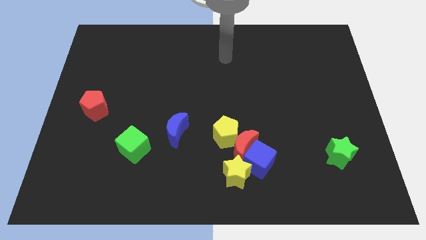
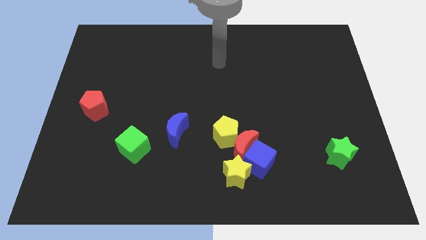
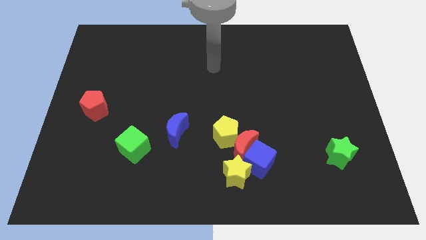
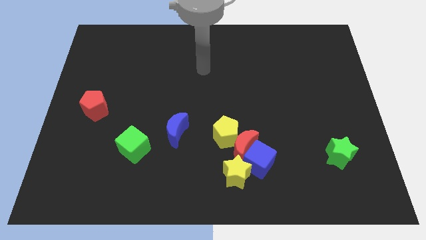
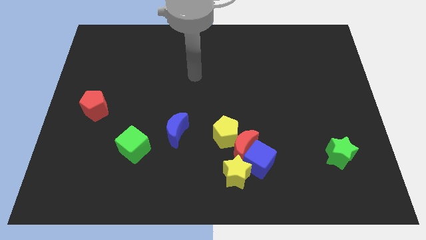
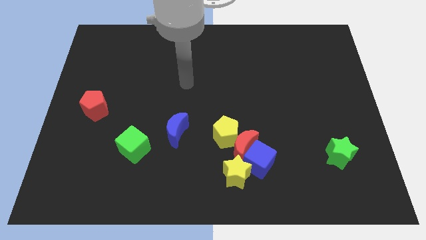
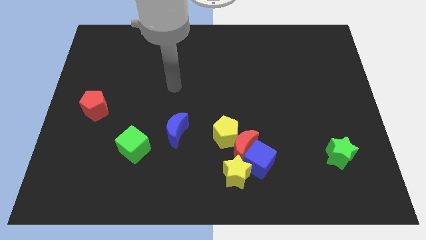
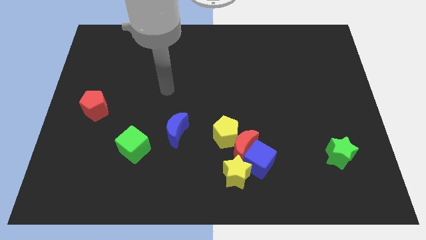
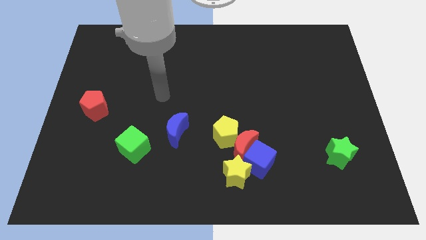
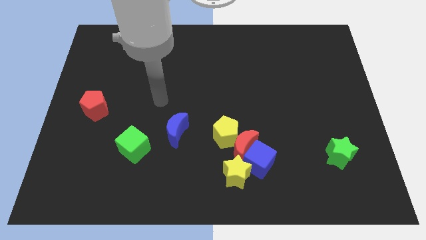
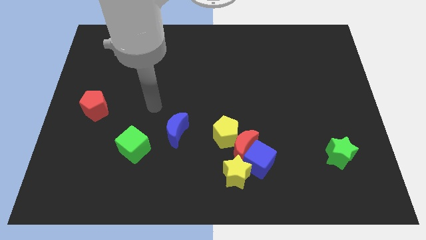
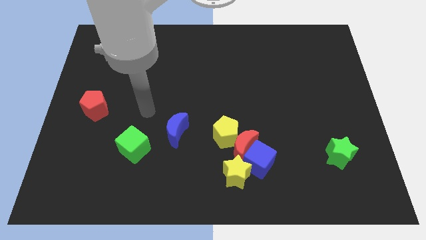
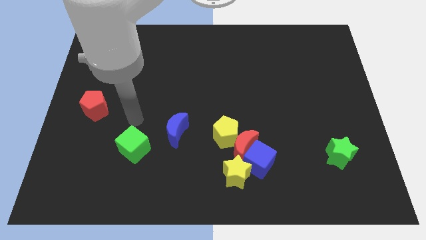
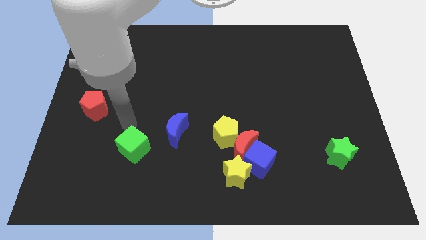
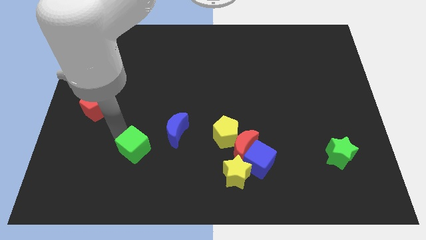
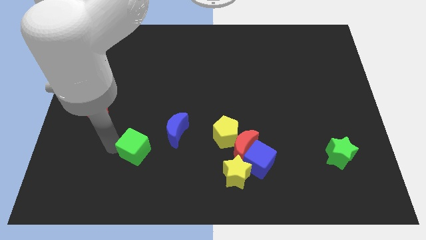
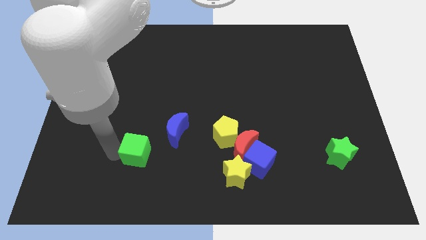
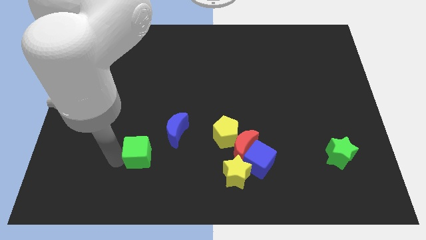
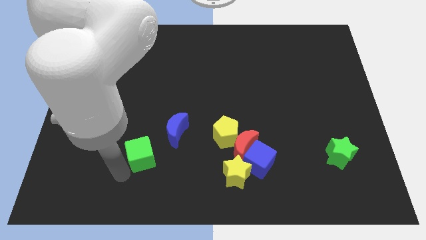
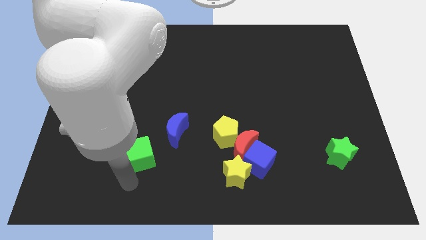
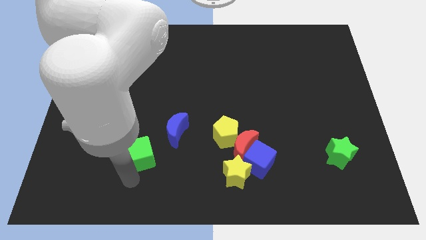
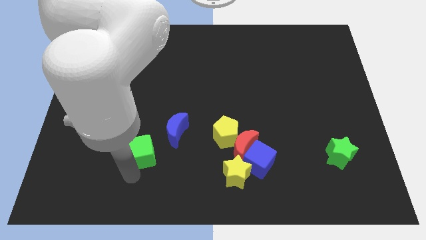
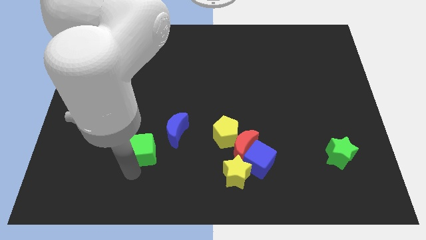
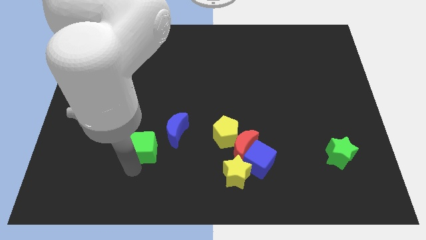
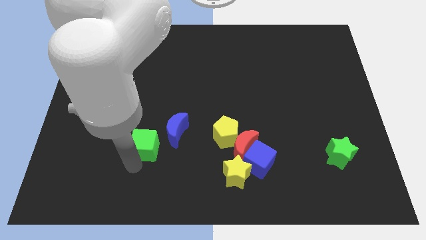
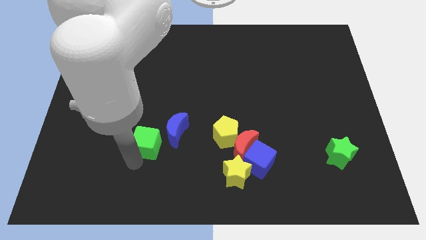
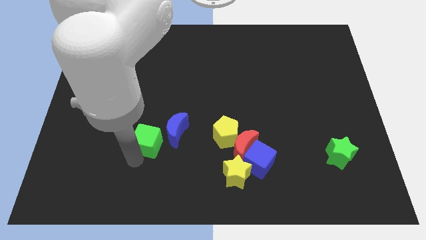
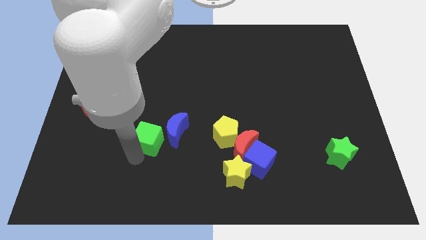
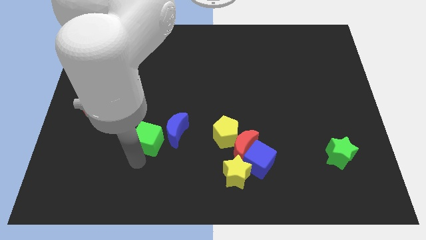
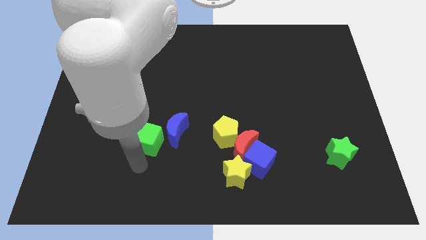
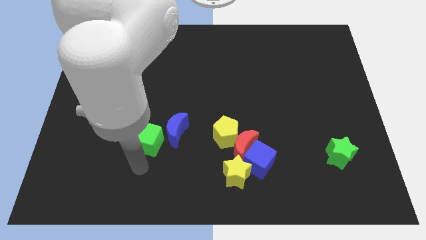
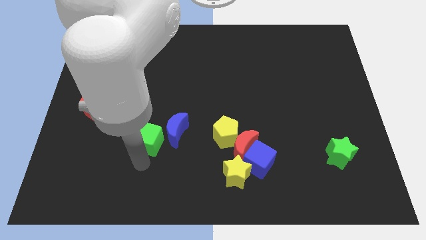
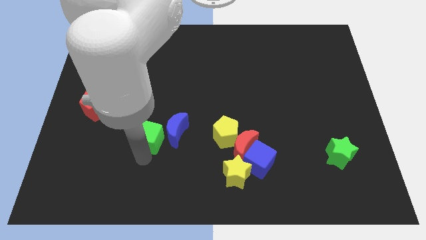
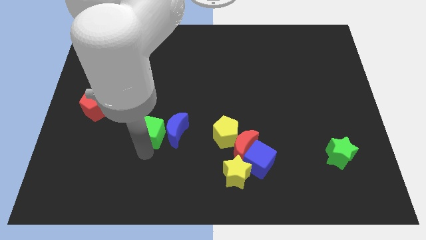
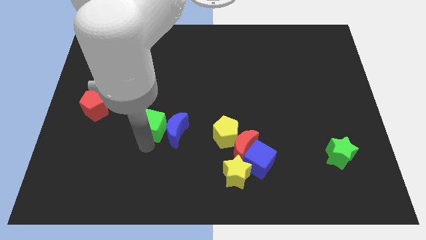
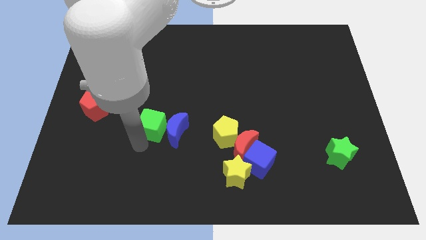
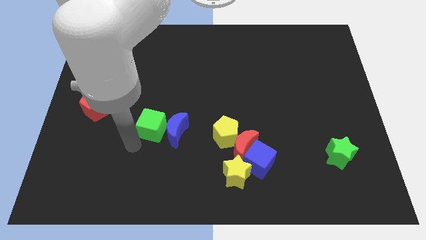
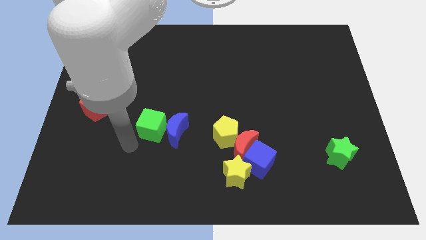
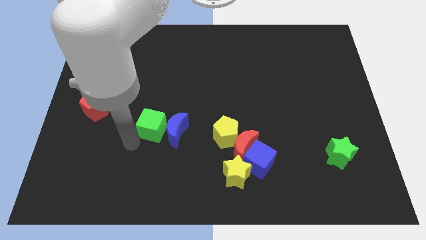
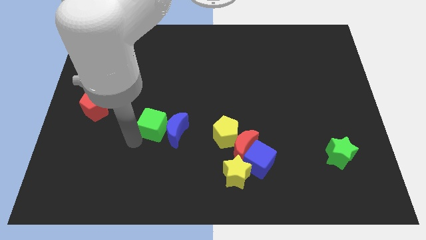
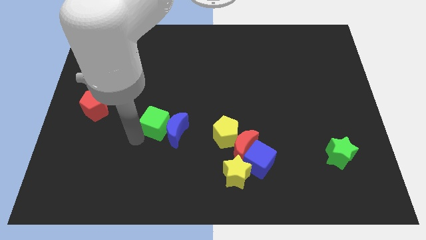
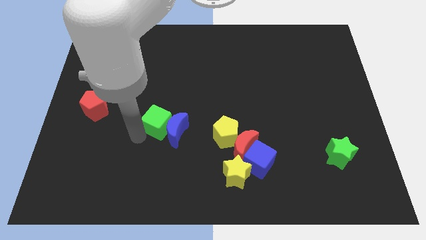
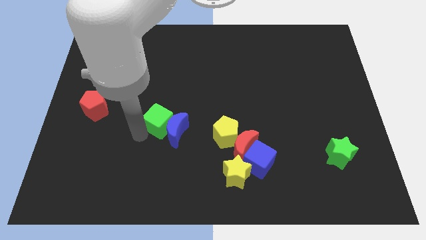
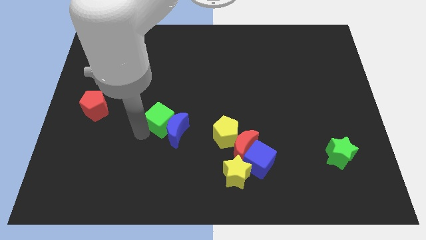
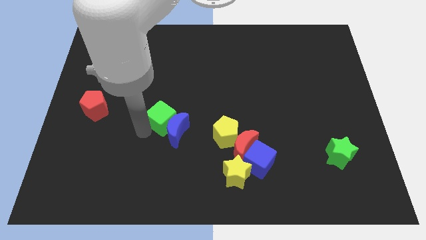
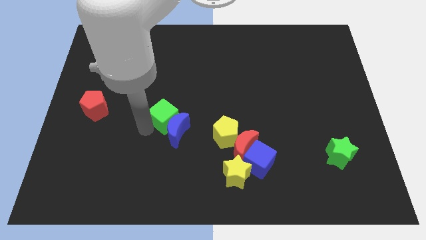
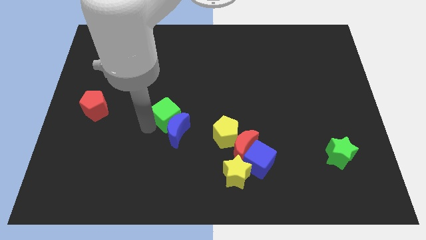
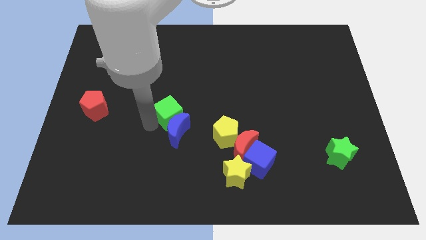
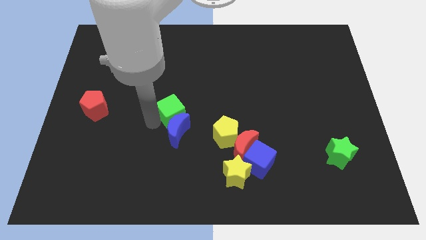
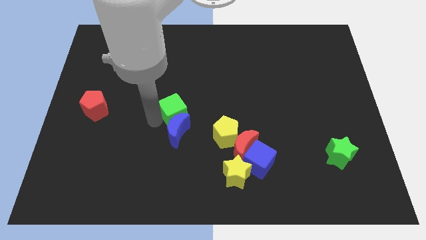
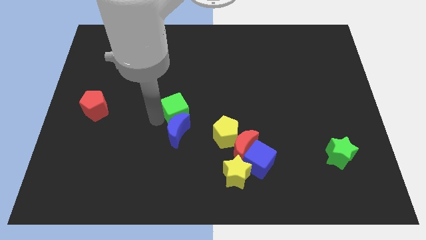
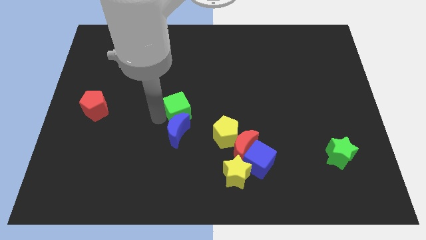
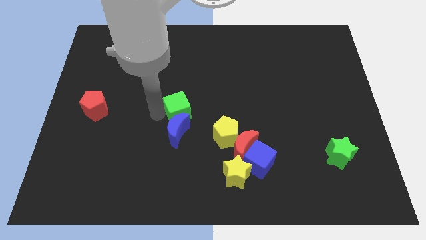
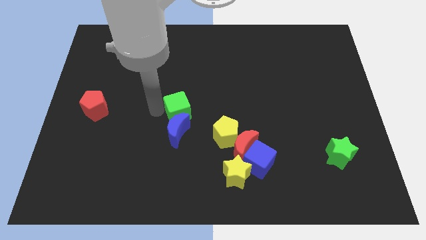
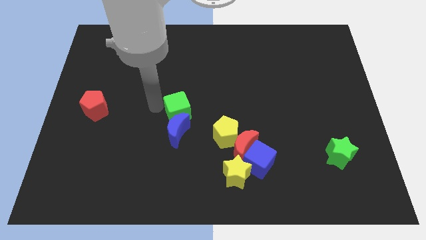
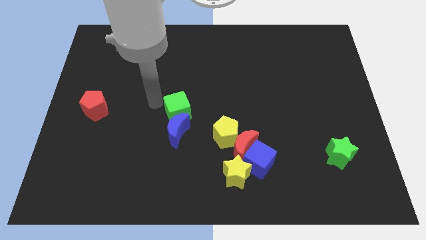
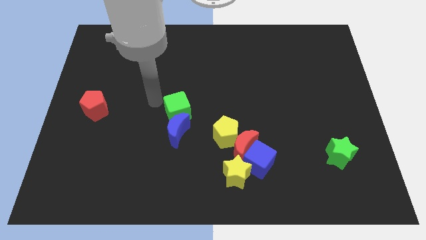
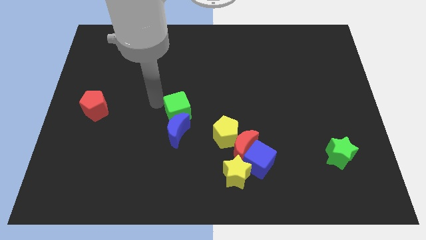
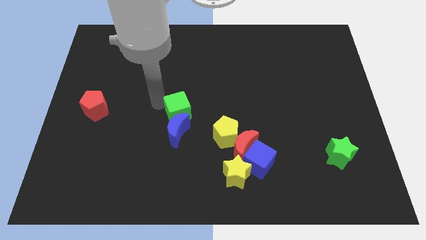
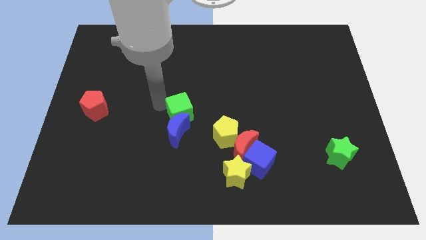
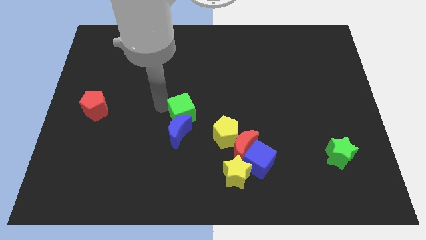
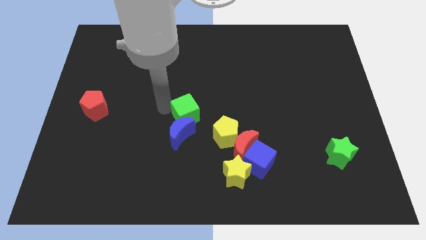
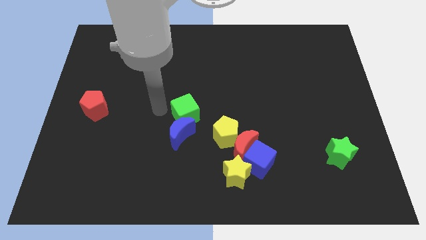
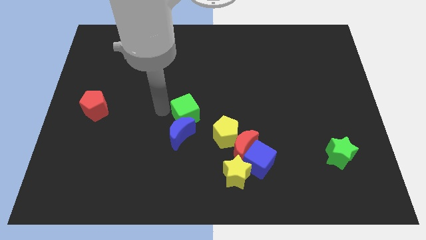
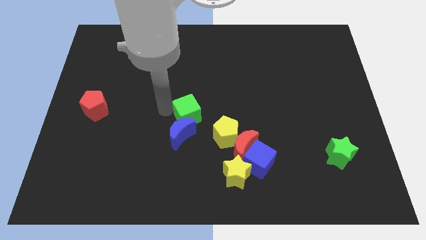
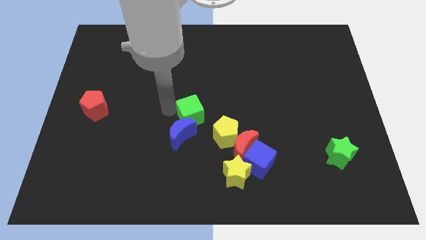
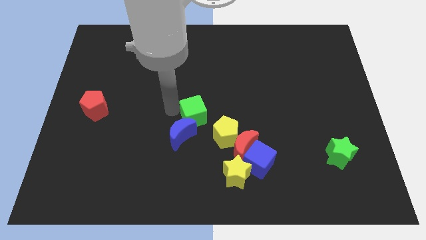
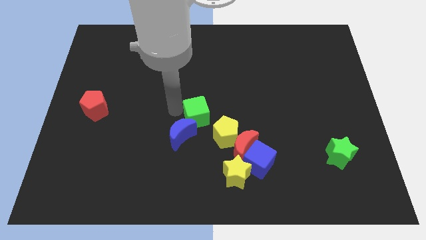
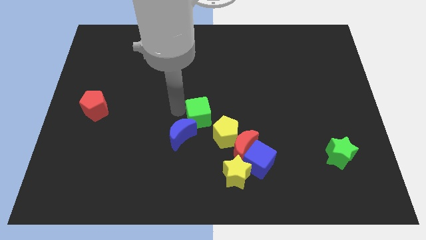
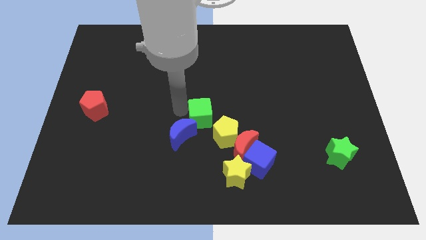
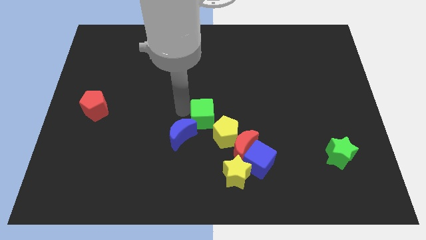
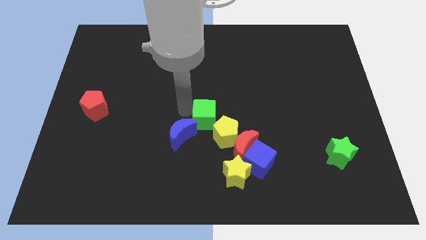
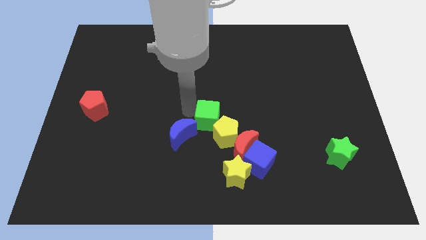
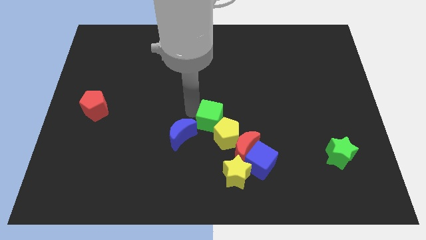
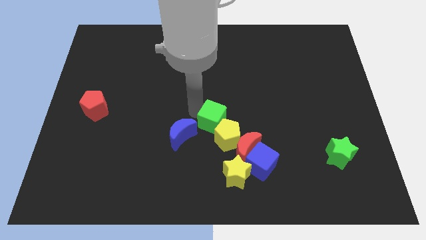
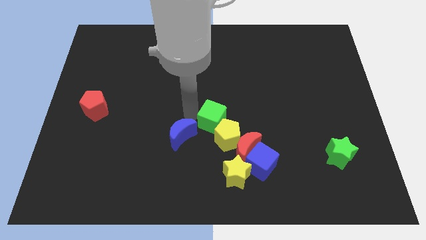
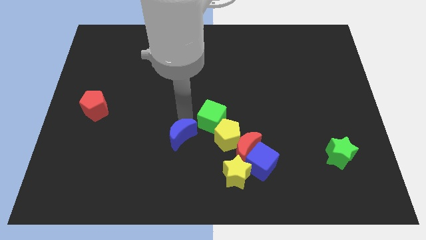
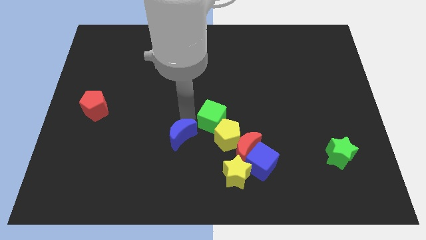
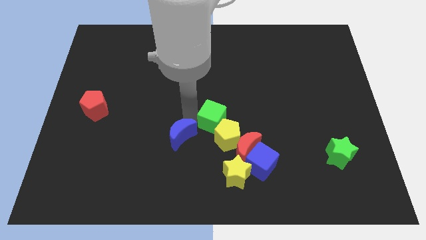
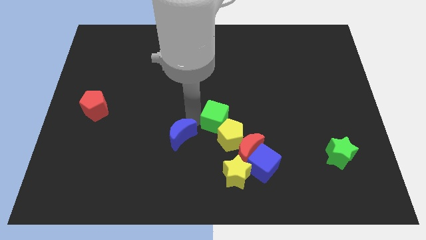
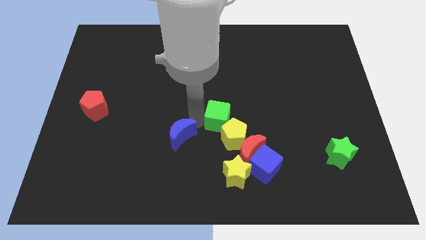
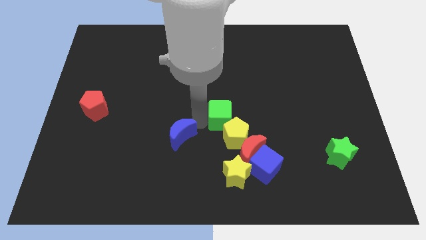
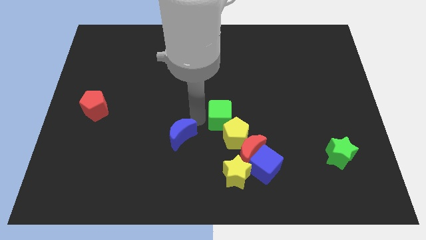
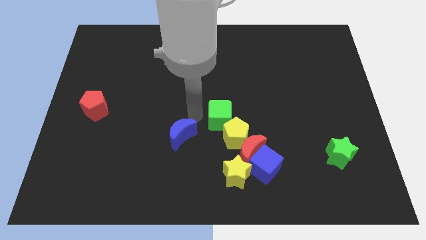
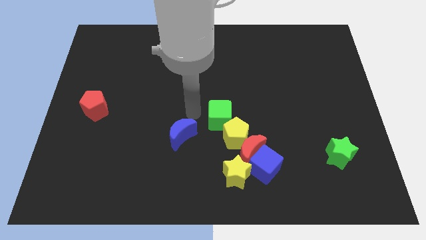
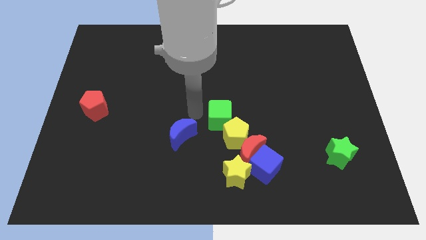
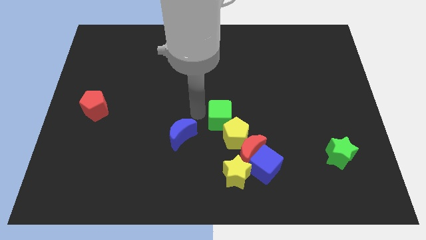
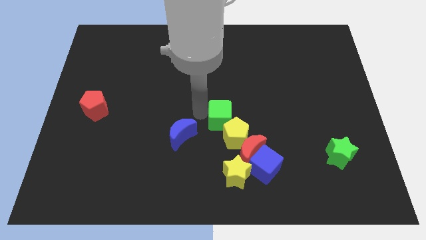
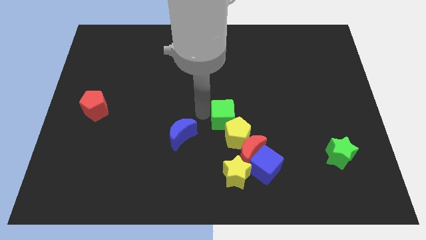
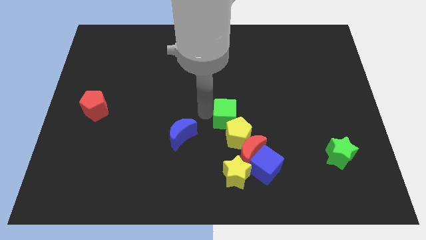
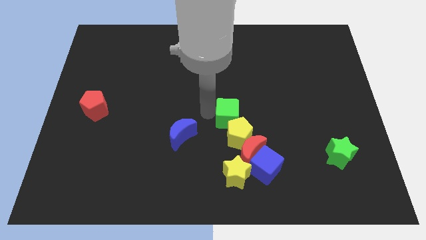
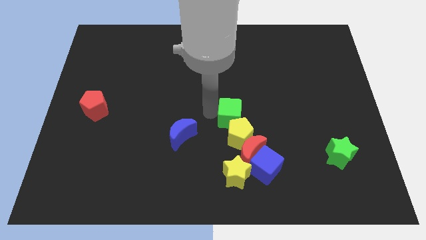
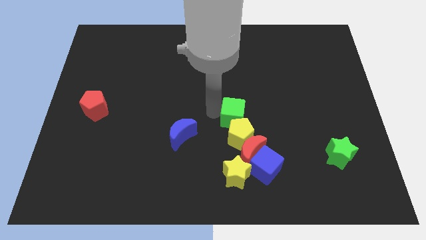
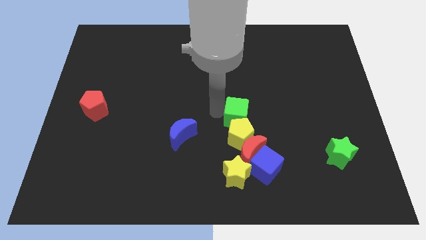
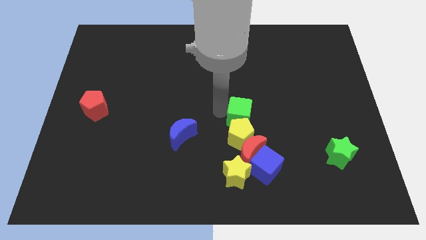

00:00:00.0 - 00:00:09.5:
push the green cube to the right
